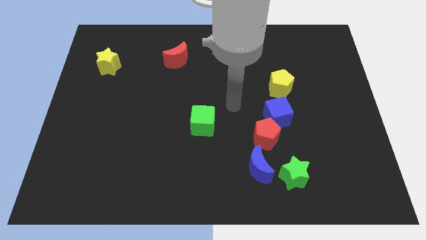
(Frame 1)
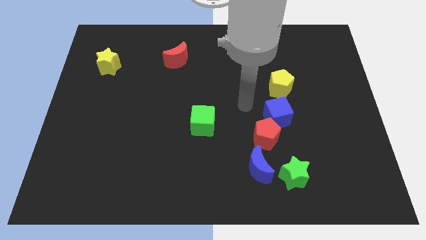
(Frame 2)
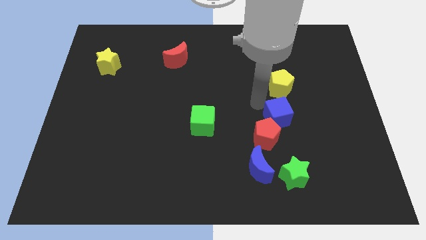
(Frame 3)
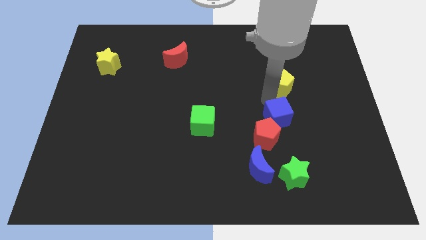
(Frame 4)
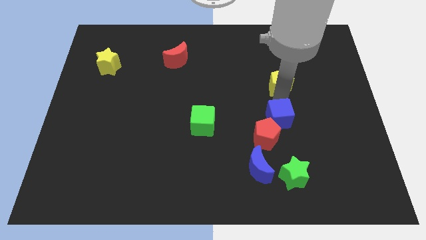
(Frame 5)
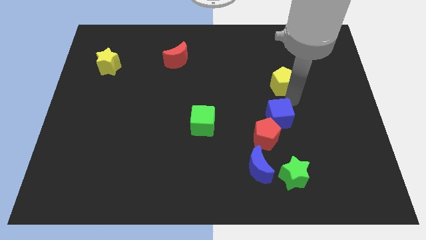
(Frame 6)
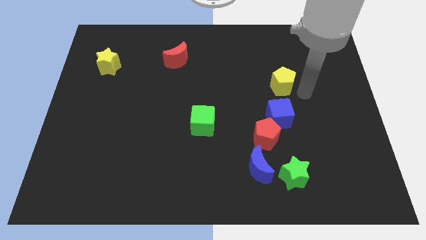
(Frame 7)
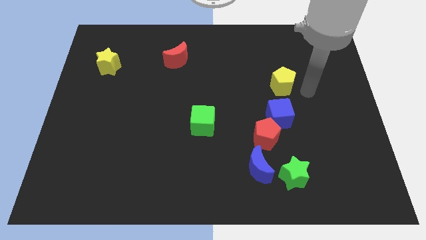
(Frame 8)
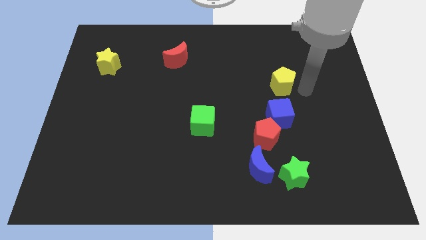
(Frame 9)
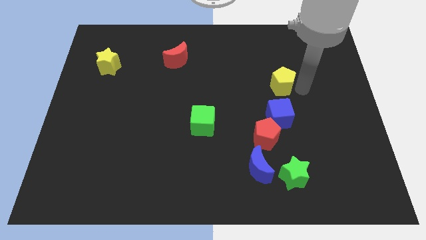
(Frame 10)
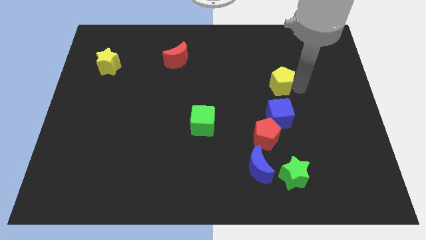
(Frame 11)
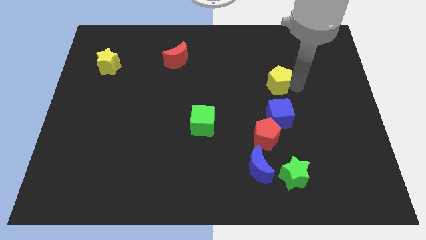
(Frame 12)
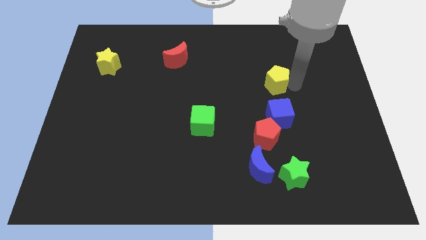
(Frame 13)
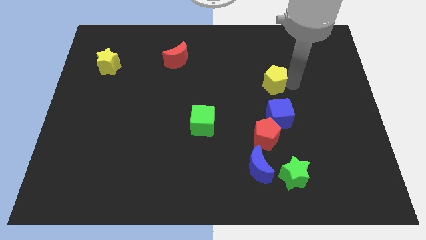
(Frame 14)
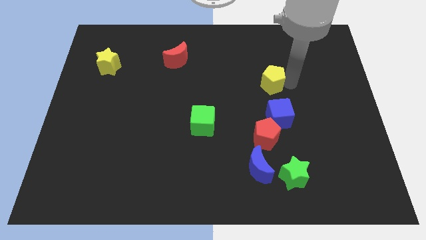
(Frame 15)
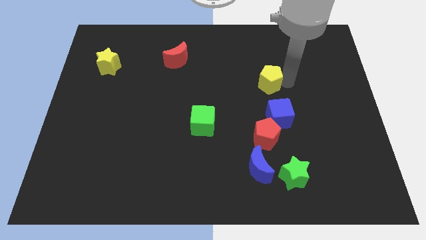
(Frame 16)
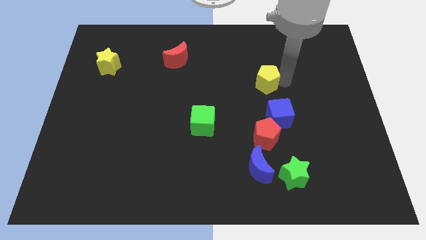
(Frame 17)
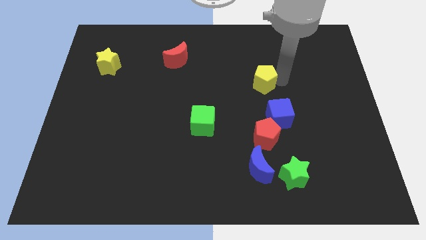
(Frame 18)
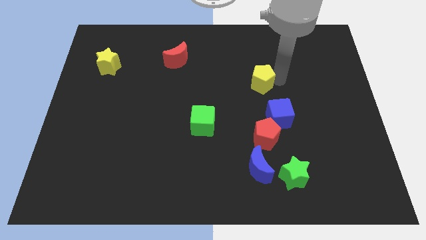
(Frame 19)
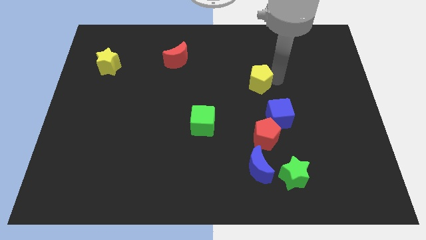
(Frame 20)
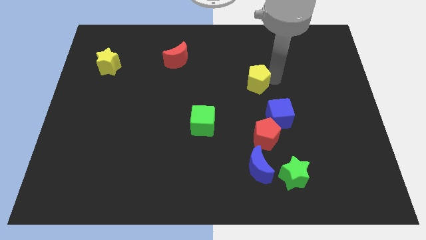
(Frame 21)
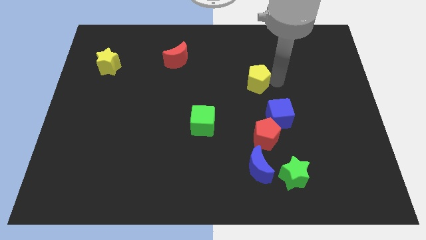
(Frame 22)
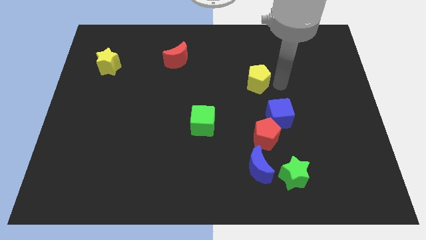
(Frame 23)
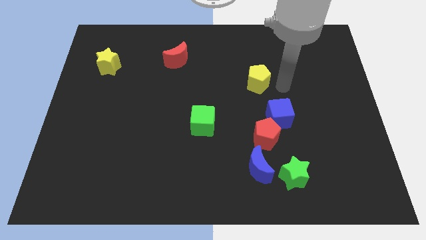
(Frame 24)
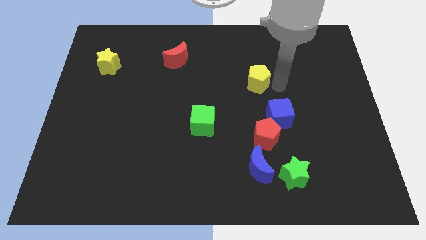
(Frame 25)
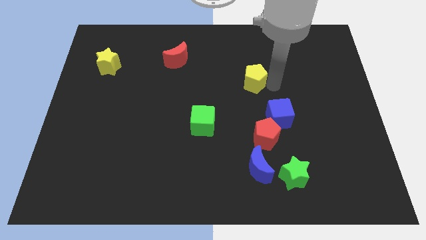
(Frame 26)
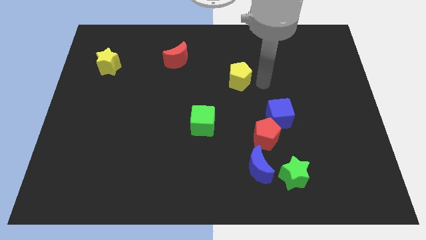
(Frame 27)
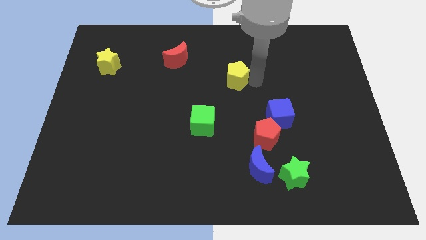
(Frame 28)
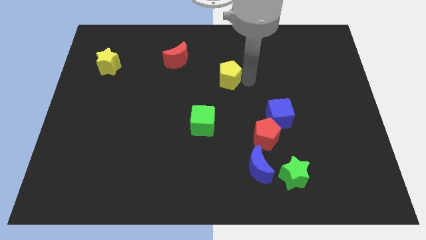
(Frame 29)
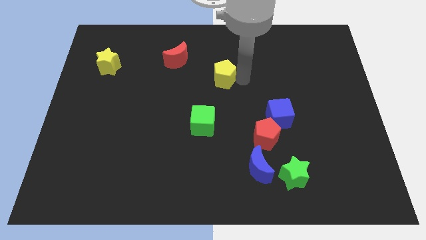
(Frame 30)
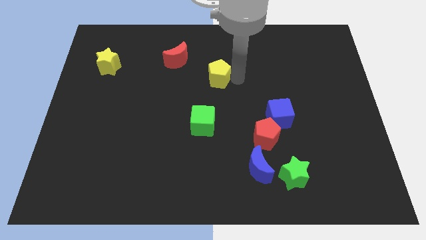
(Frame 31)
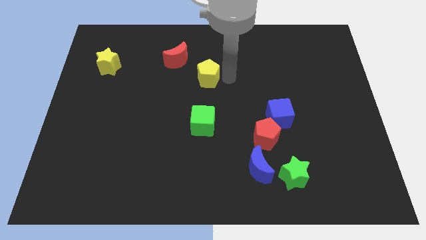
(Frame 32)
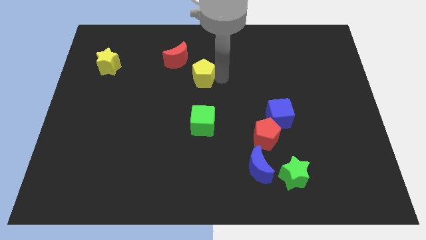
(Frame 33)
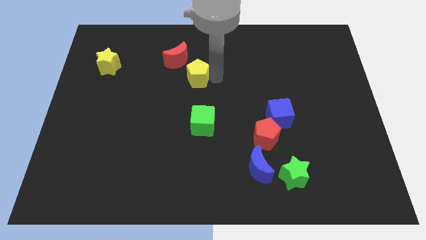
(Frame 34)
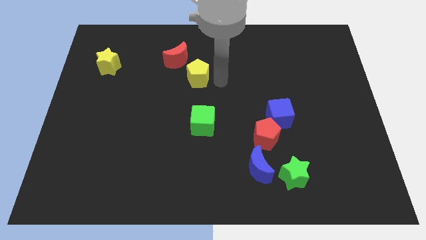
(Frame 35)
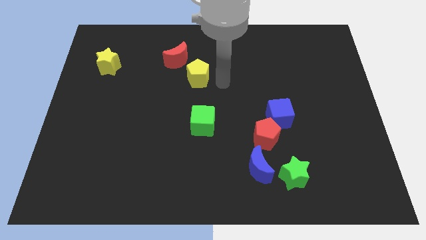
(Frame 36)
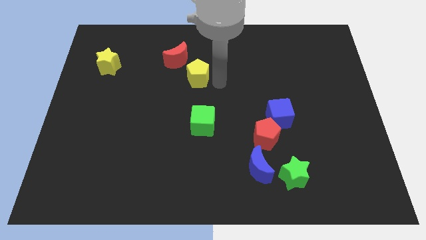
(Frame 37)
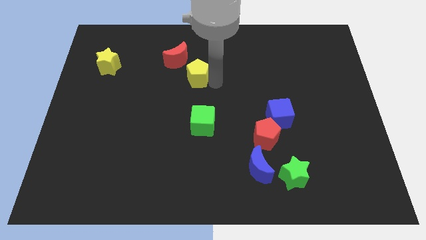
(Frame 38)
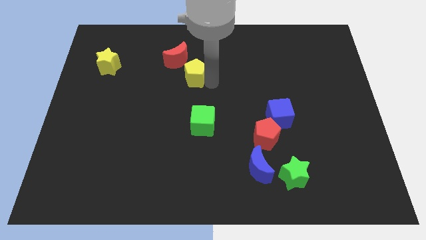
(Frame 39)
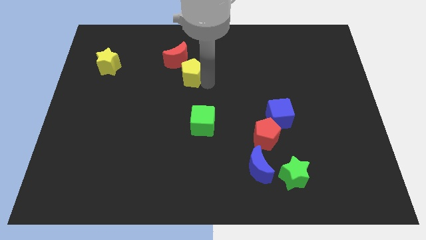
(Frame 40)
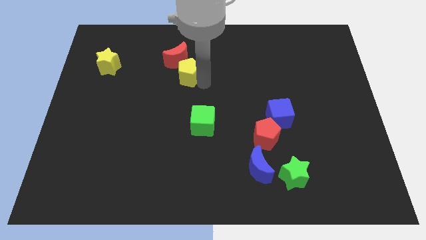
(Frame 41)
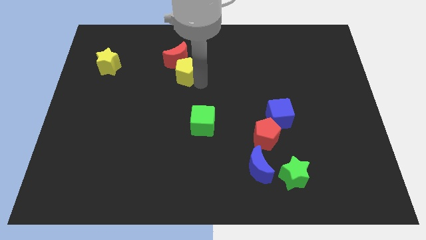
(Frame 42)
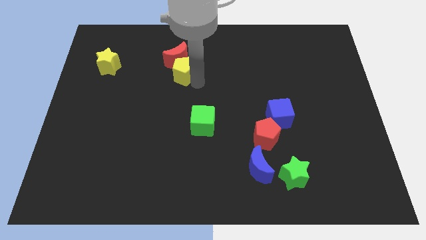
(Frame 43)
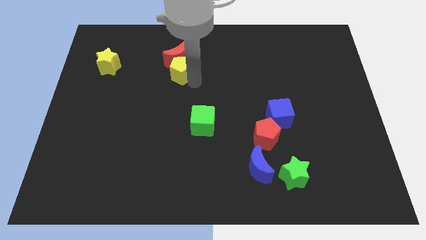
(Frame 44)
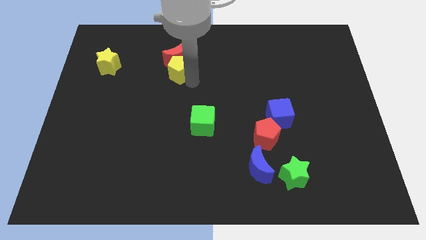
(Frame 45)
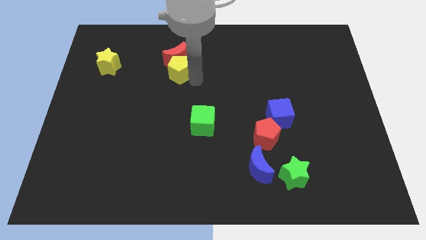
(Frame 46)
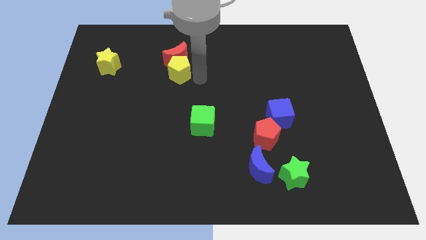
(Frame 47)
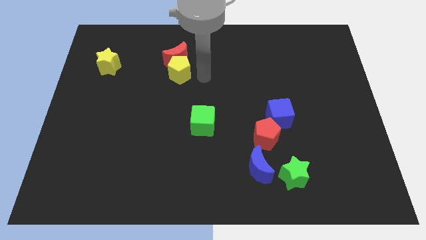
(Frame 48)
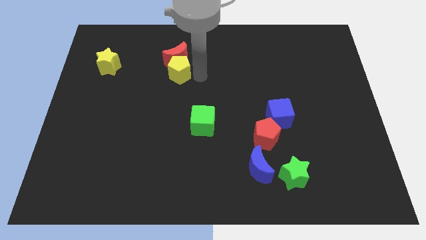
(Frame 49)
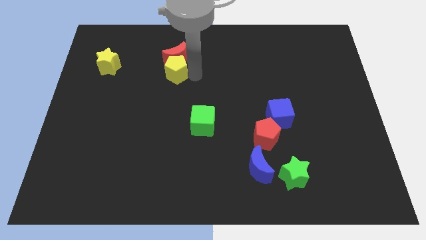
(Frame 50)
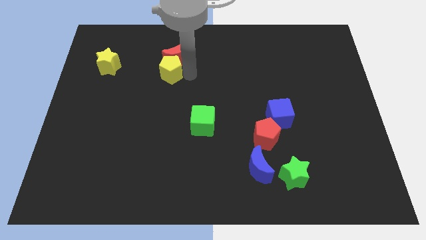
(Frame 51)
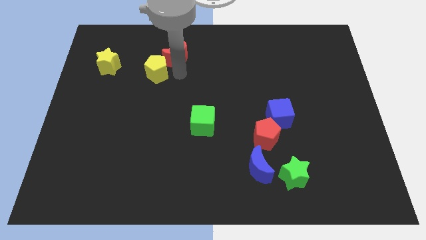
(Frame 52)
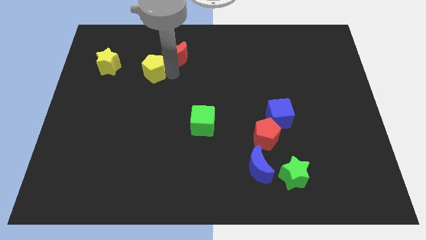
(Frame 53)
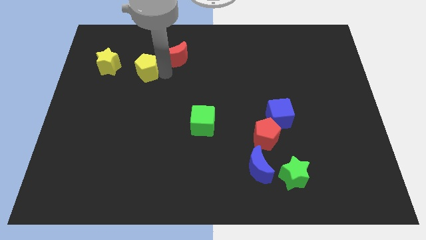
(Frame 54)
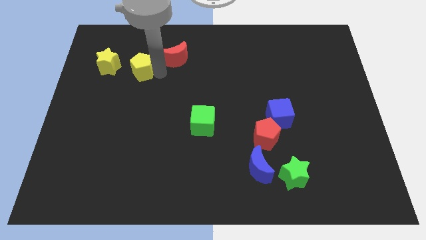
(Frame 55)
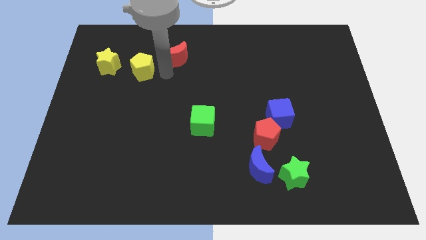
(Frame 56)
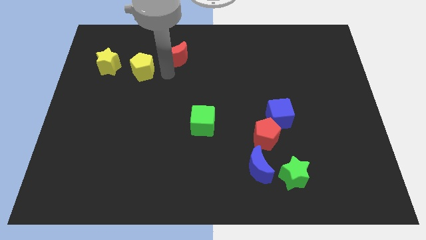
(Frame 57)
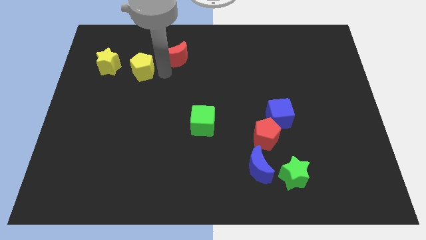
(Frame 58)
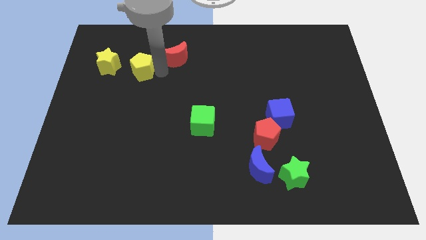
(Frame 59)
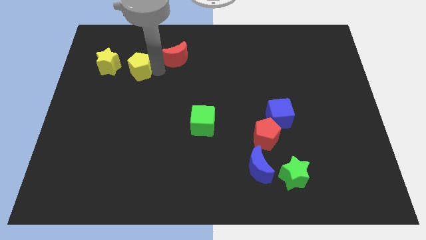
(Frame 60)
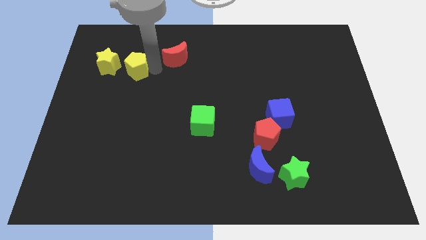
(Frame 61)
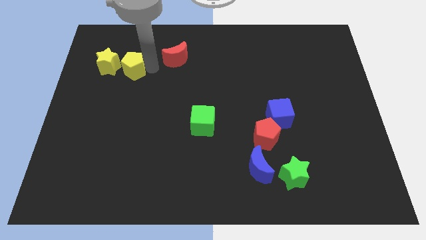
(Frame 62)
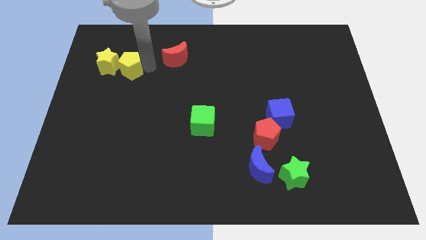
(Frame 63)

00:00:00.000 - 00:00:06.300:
move the yellow pentagon to the yellow star
